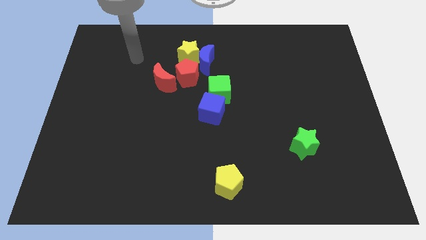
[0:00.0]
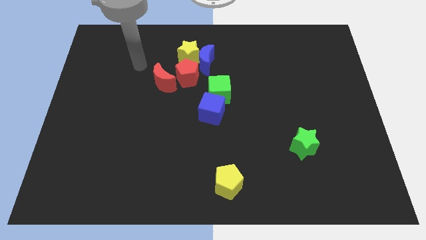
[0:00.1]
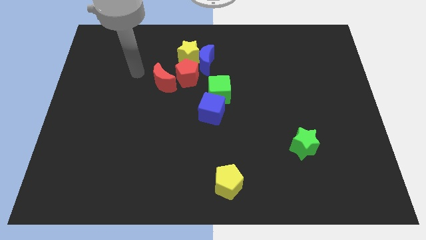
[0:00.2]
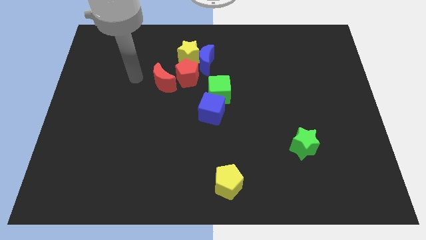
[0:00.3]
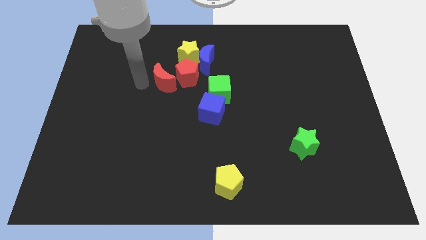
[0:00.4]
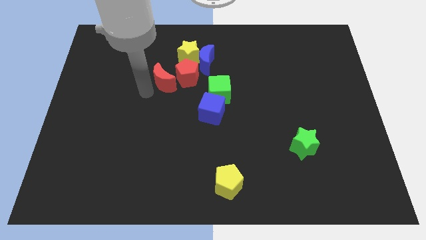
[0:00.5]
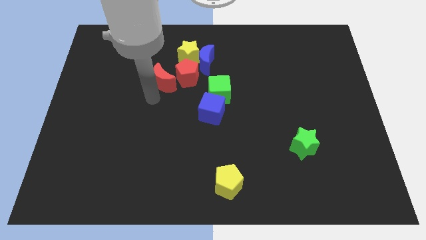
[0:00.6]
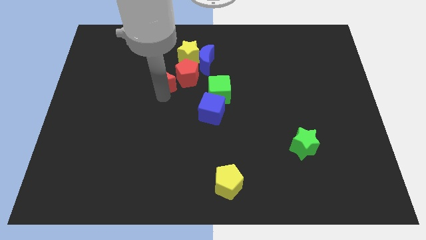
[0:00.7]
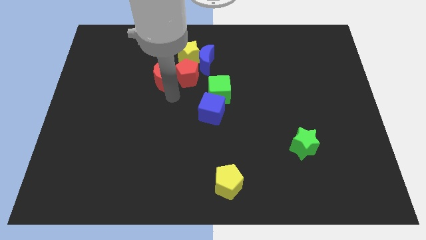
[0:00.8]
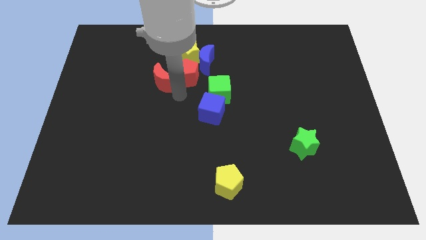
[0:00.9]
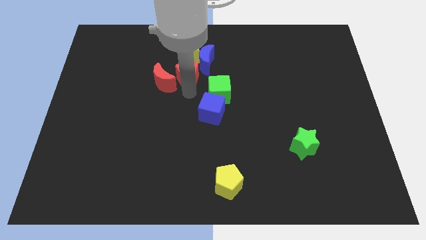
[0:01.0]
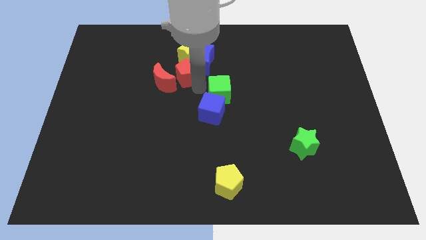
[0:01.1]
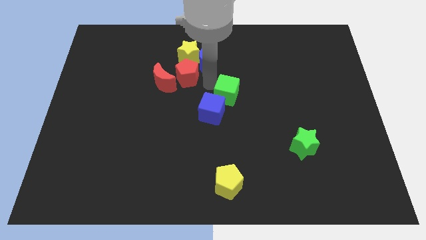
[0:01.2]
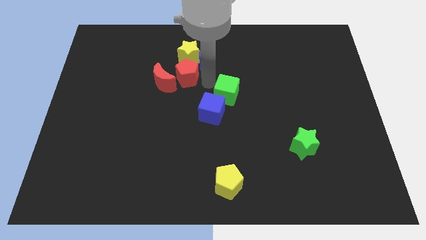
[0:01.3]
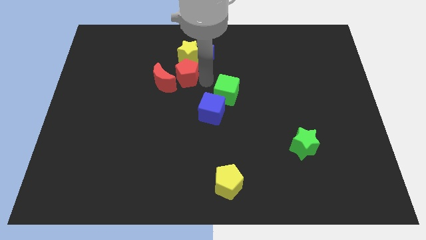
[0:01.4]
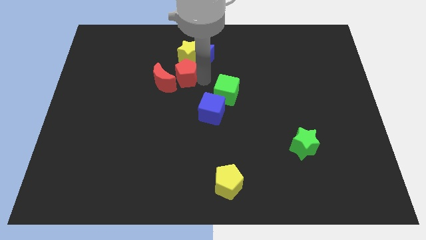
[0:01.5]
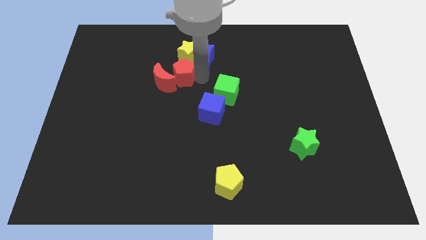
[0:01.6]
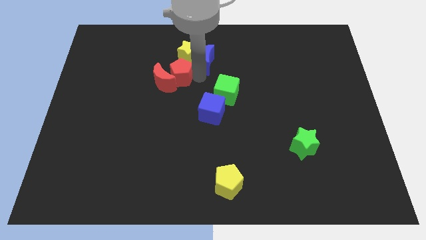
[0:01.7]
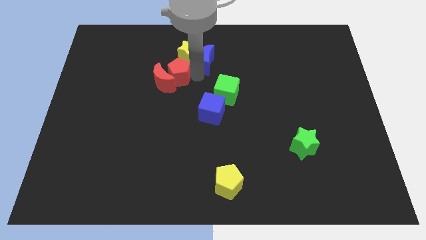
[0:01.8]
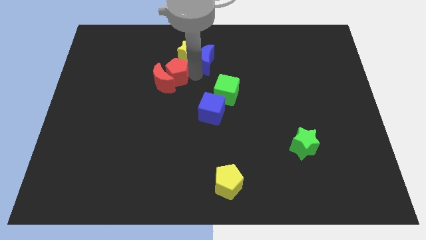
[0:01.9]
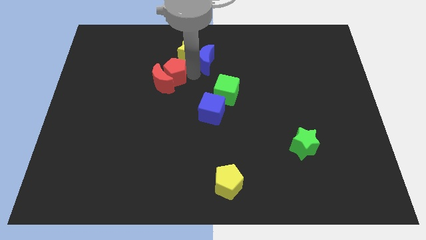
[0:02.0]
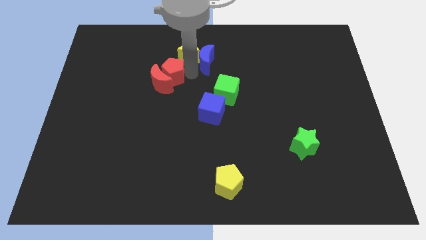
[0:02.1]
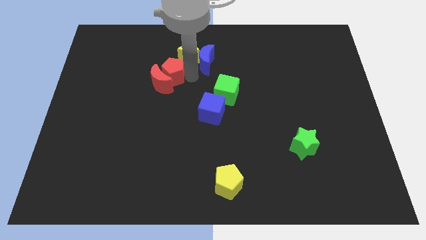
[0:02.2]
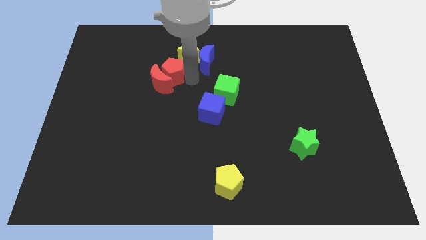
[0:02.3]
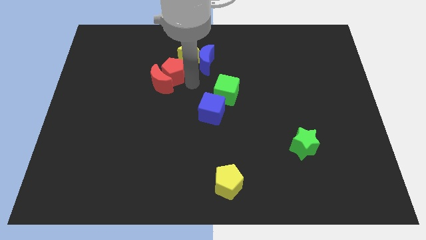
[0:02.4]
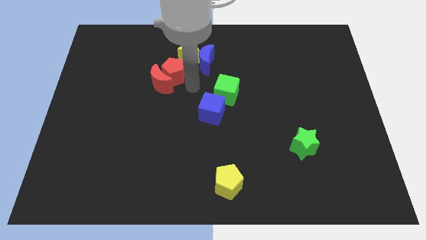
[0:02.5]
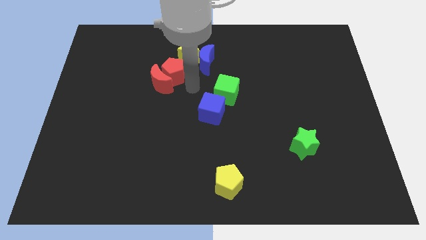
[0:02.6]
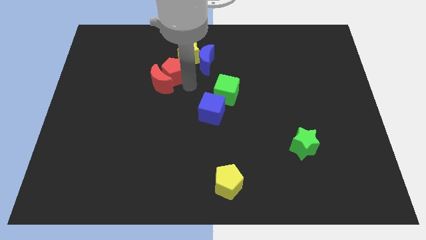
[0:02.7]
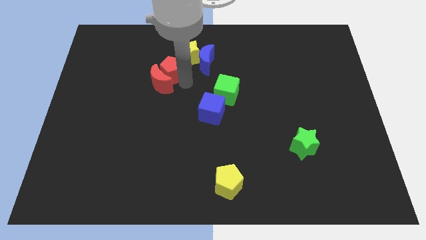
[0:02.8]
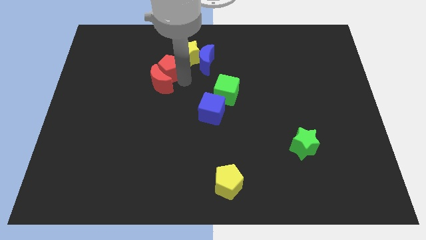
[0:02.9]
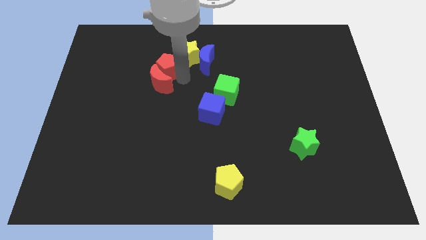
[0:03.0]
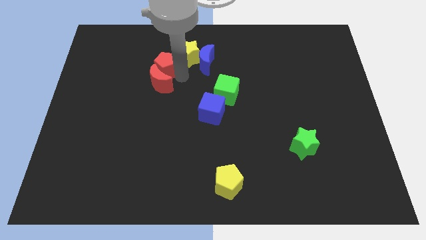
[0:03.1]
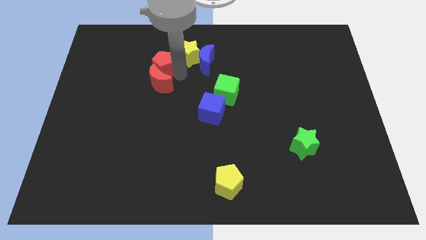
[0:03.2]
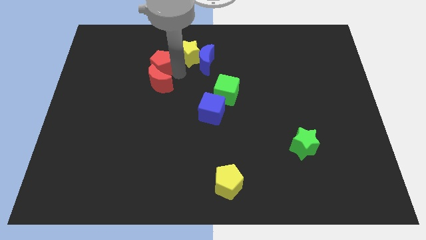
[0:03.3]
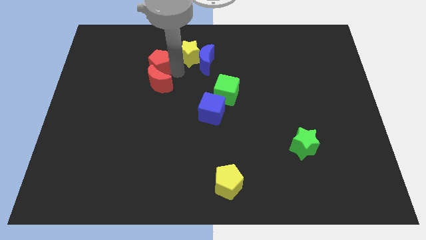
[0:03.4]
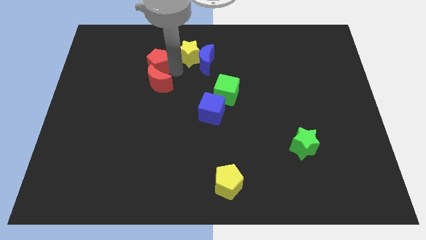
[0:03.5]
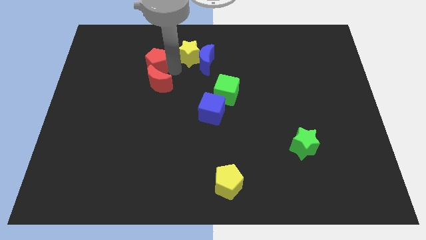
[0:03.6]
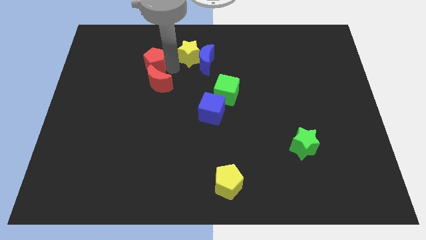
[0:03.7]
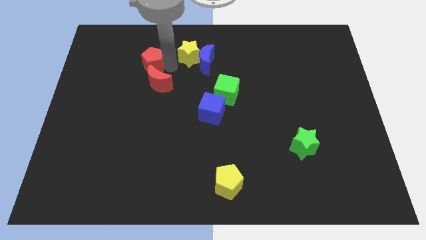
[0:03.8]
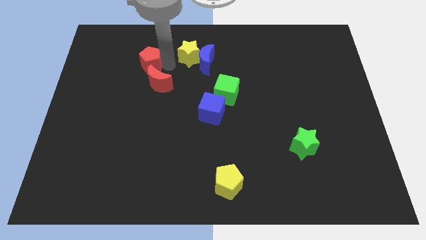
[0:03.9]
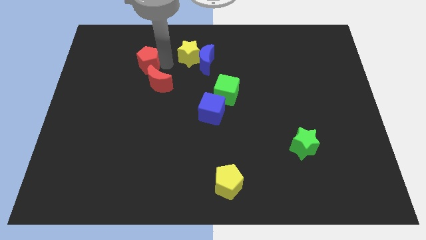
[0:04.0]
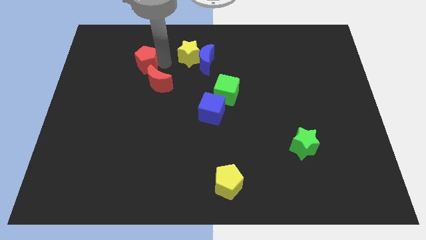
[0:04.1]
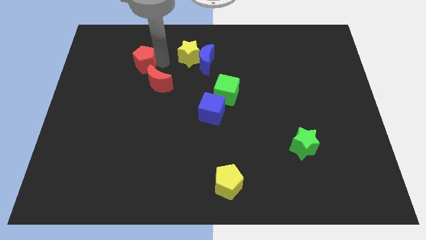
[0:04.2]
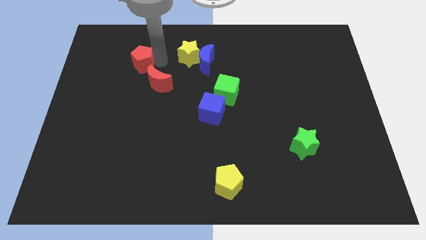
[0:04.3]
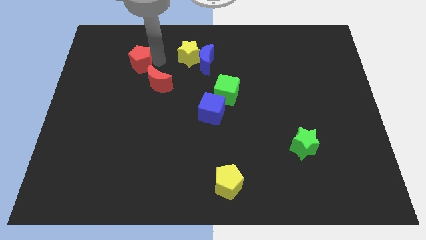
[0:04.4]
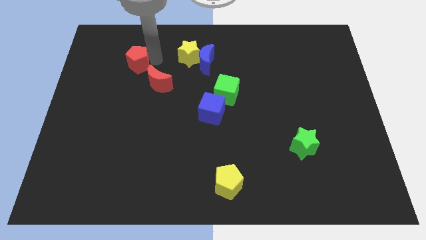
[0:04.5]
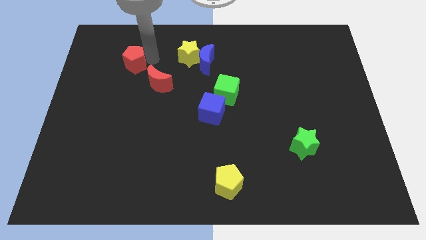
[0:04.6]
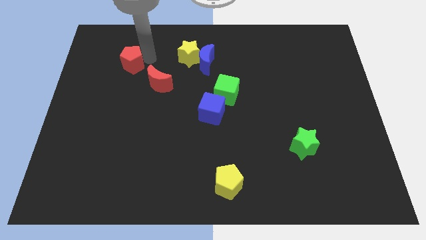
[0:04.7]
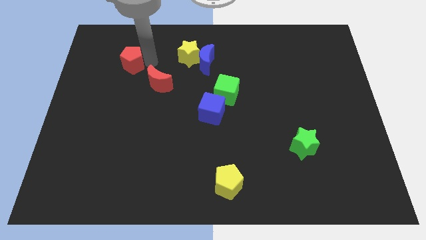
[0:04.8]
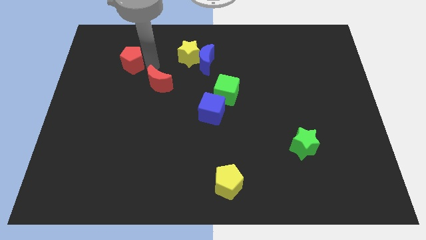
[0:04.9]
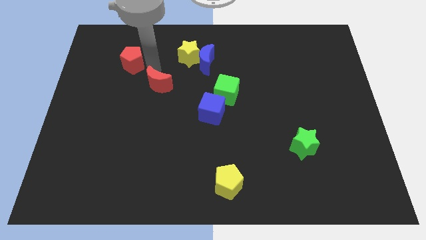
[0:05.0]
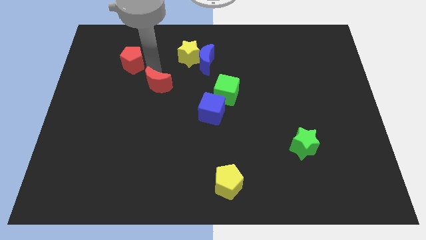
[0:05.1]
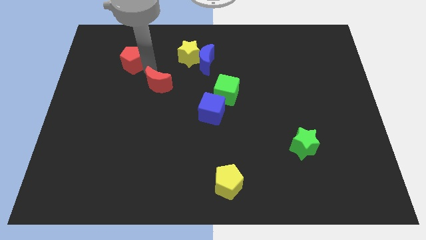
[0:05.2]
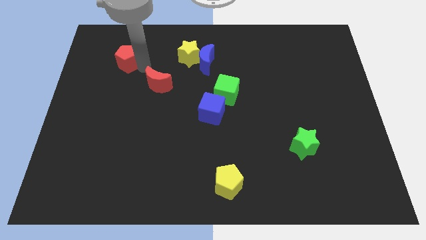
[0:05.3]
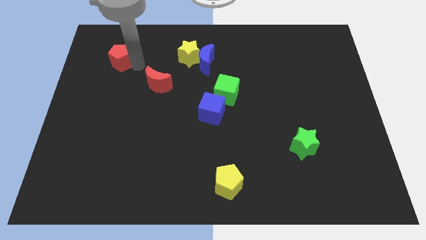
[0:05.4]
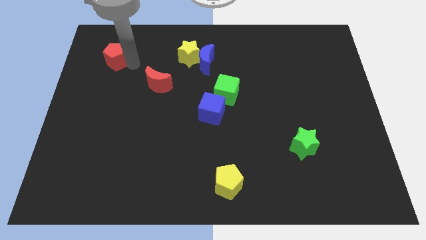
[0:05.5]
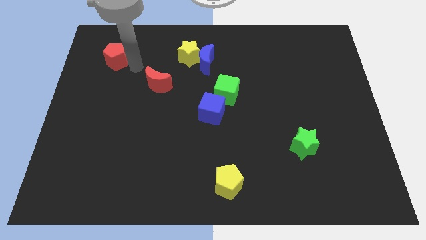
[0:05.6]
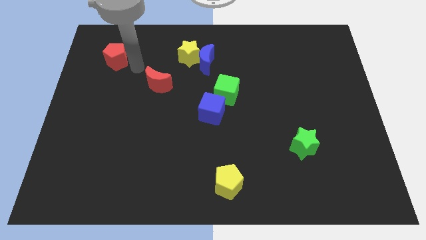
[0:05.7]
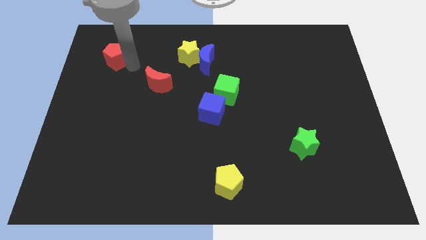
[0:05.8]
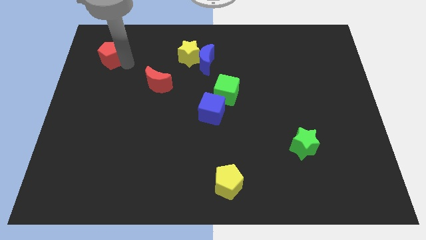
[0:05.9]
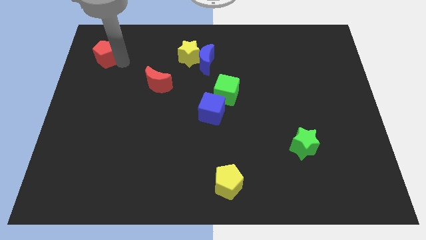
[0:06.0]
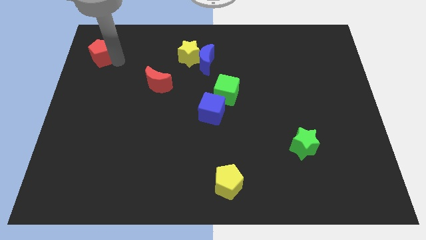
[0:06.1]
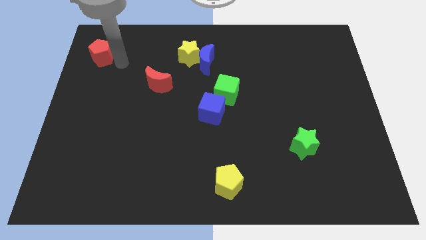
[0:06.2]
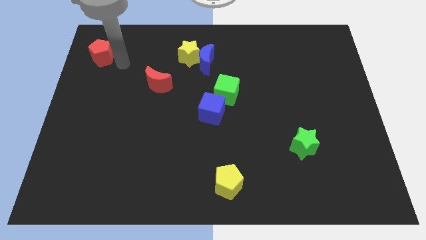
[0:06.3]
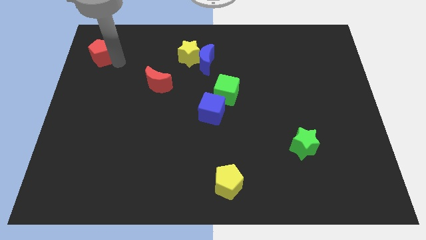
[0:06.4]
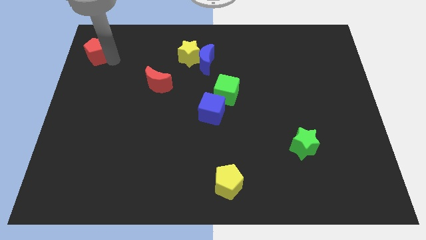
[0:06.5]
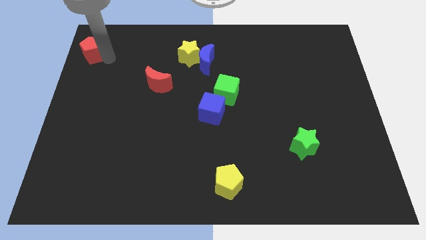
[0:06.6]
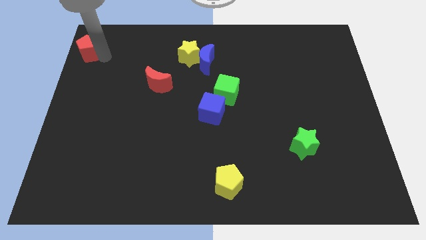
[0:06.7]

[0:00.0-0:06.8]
push the red pentagon to the upper left corner
